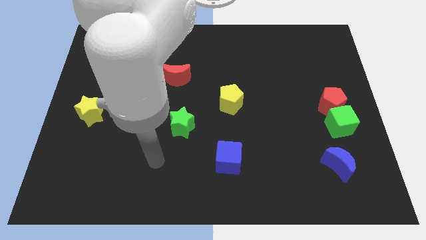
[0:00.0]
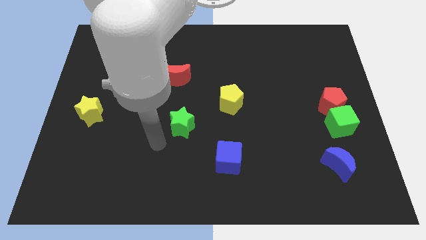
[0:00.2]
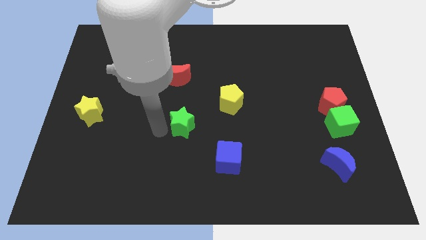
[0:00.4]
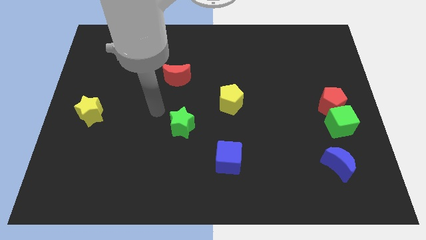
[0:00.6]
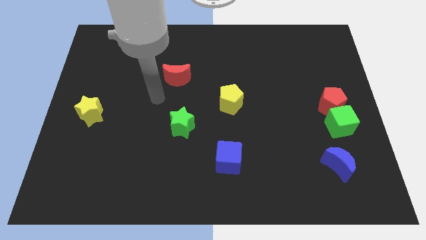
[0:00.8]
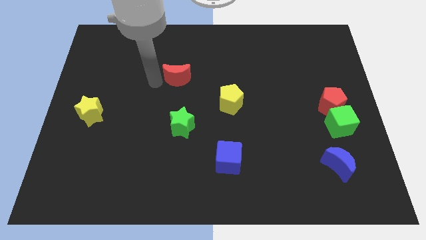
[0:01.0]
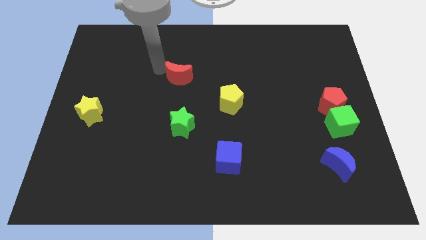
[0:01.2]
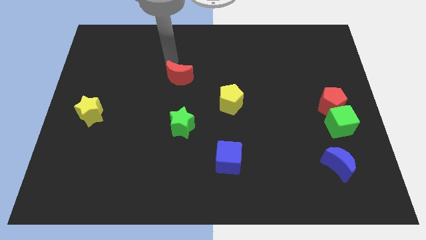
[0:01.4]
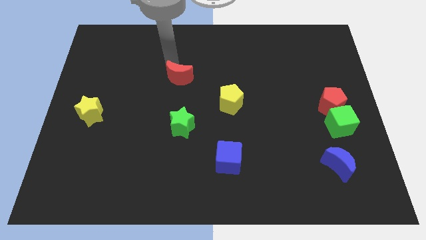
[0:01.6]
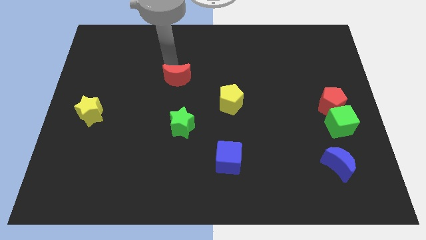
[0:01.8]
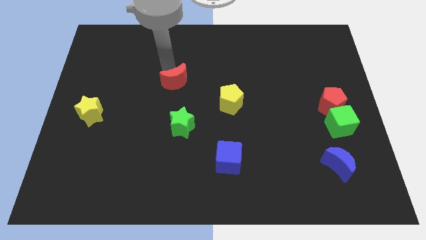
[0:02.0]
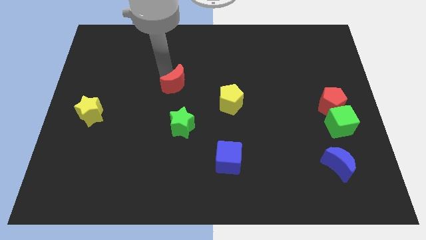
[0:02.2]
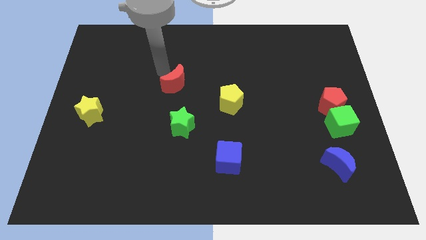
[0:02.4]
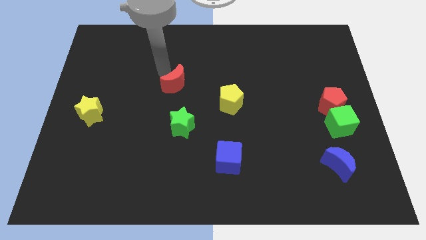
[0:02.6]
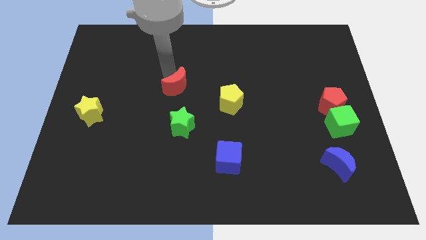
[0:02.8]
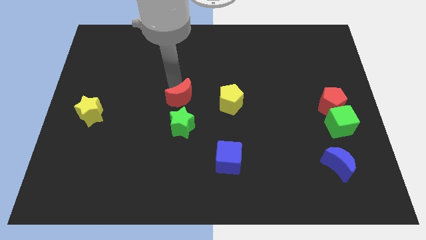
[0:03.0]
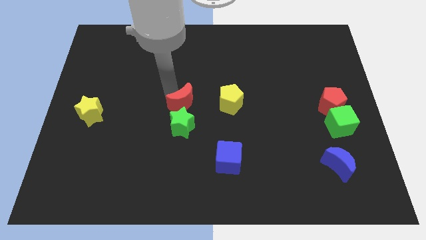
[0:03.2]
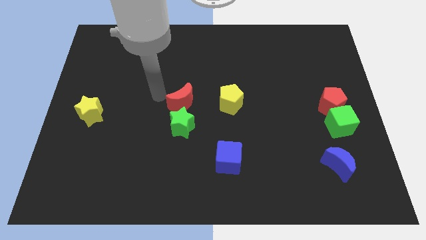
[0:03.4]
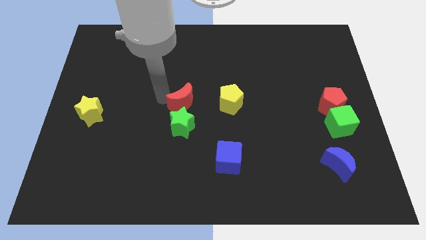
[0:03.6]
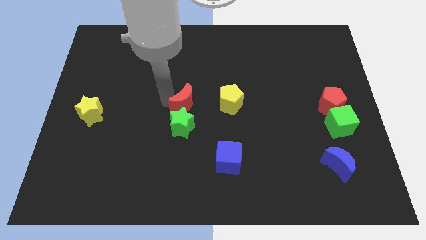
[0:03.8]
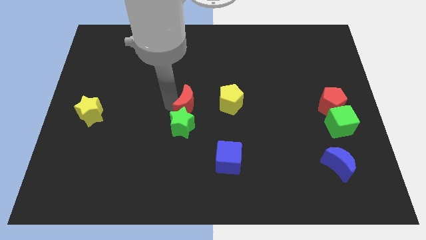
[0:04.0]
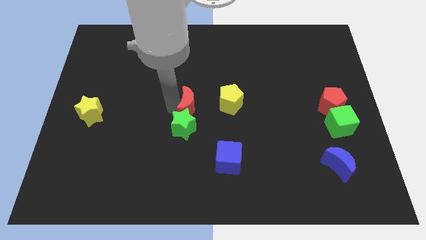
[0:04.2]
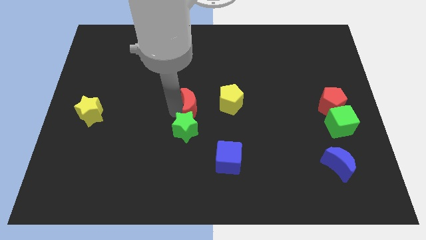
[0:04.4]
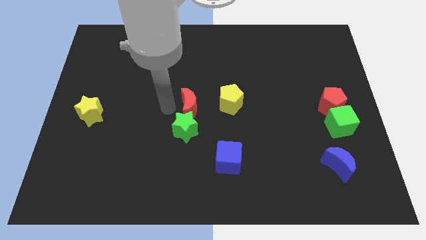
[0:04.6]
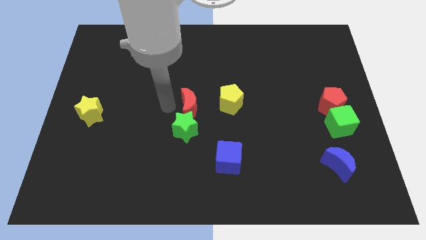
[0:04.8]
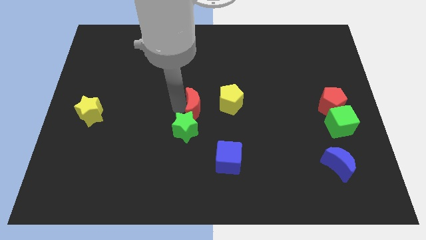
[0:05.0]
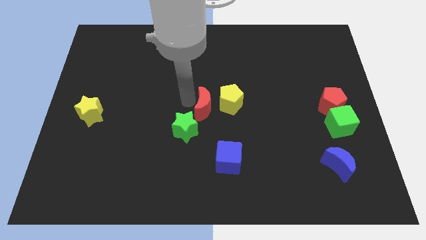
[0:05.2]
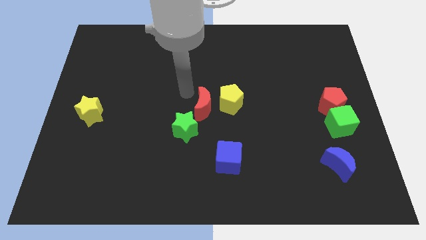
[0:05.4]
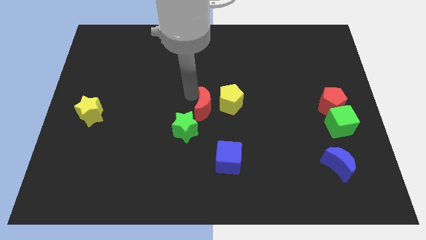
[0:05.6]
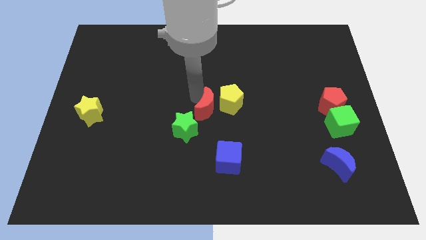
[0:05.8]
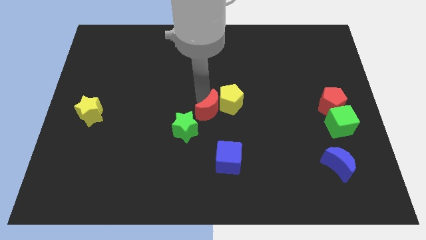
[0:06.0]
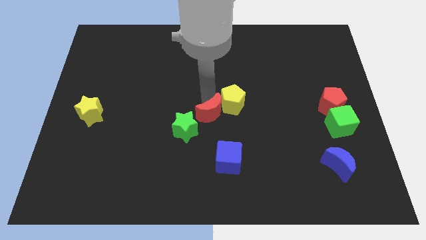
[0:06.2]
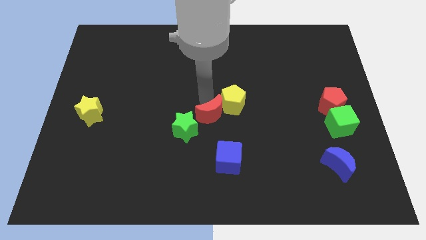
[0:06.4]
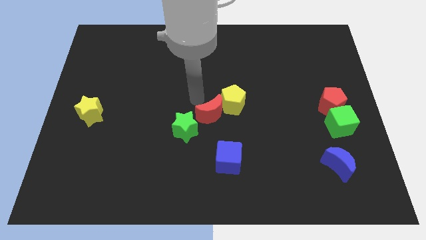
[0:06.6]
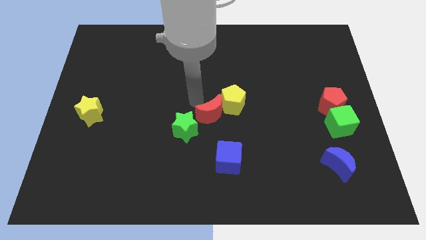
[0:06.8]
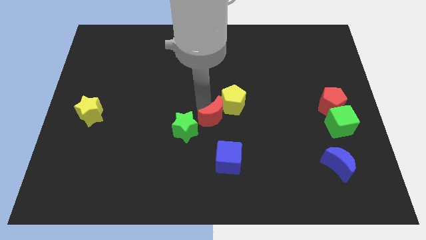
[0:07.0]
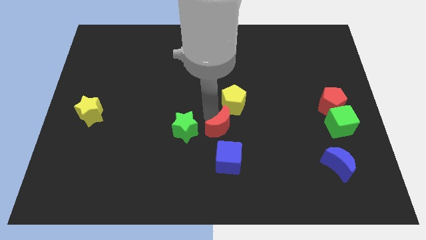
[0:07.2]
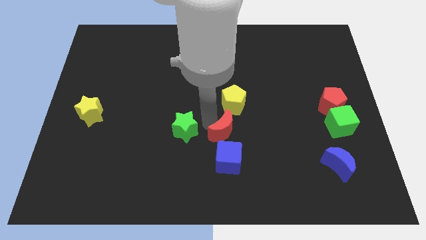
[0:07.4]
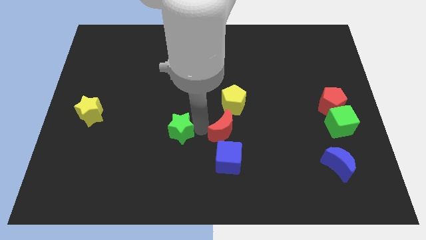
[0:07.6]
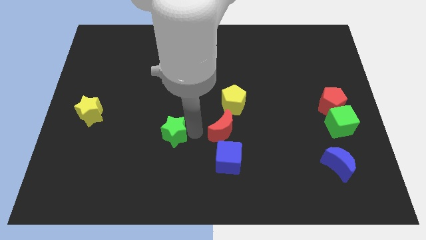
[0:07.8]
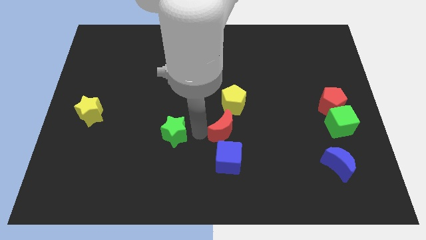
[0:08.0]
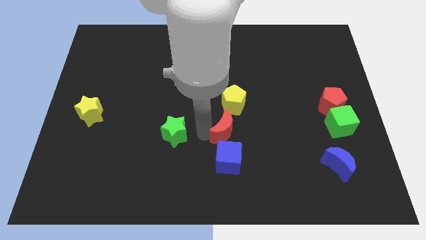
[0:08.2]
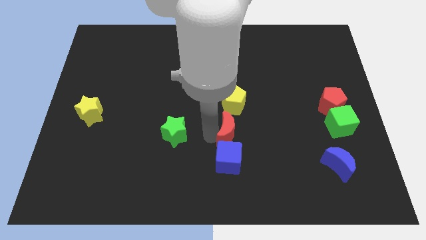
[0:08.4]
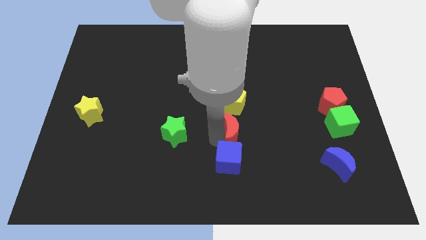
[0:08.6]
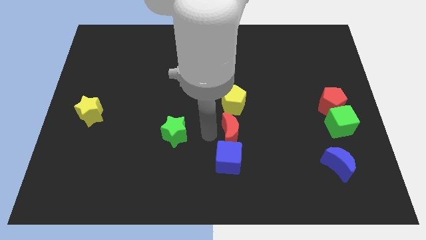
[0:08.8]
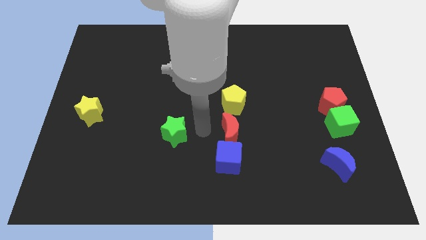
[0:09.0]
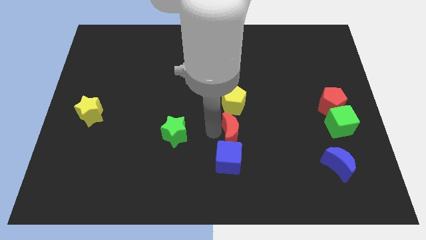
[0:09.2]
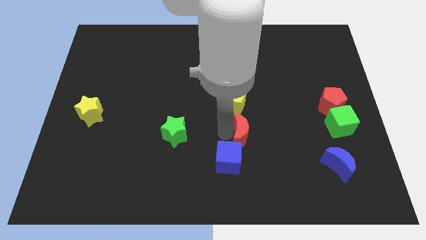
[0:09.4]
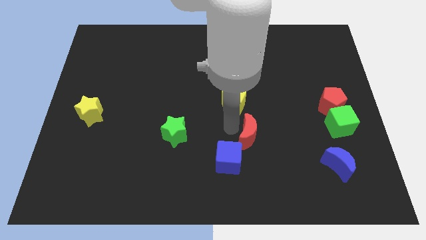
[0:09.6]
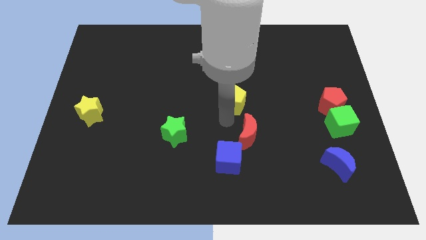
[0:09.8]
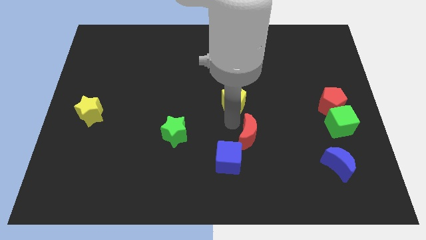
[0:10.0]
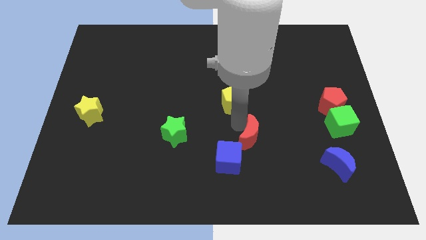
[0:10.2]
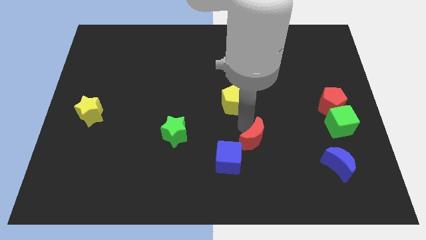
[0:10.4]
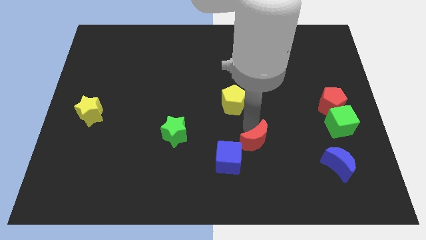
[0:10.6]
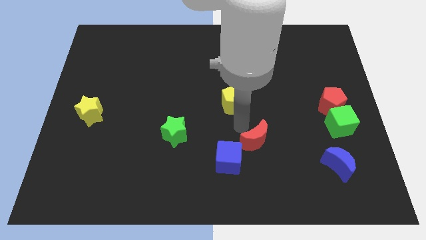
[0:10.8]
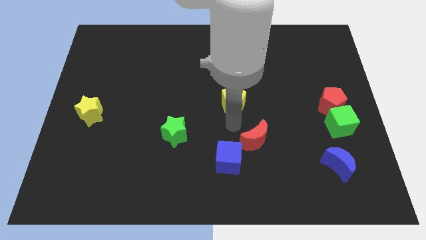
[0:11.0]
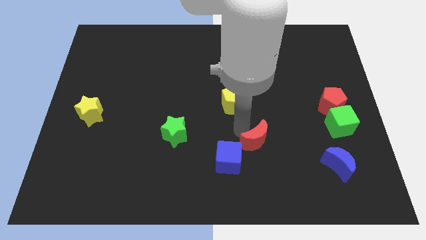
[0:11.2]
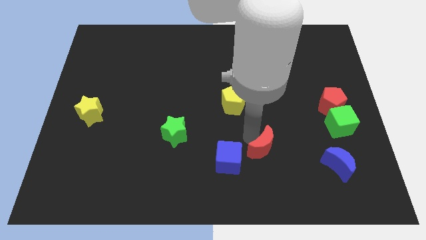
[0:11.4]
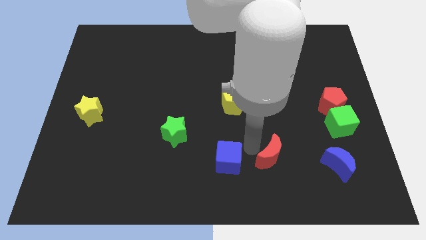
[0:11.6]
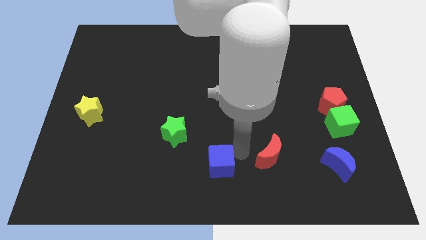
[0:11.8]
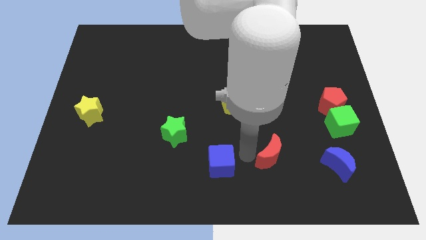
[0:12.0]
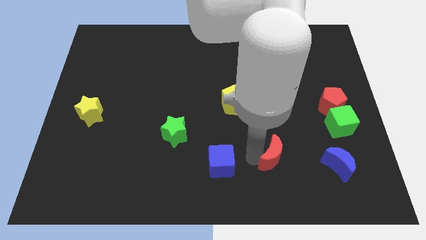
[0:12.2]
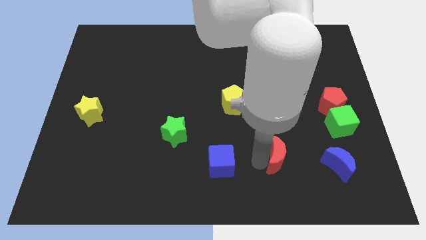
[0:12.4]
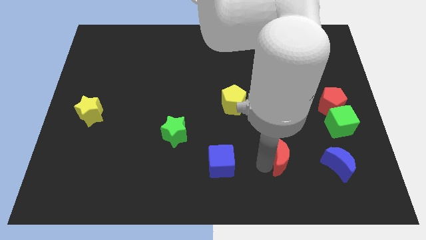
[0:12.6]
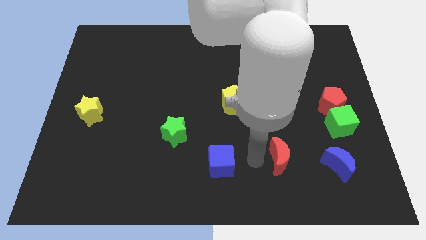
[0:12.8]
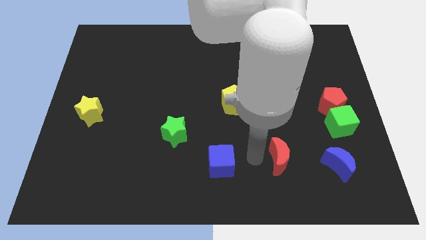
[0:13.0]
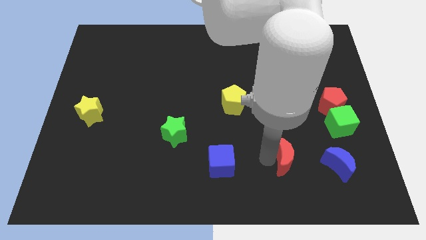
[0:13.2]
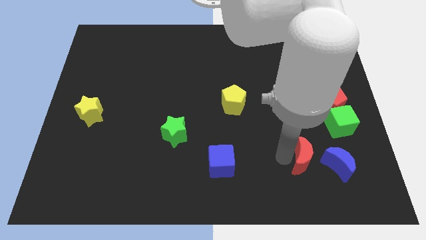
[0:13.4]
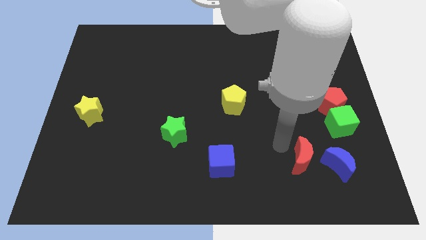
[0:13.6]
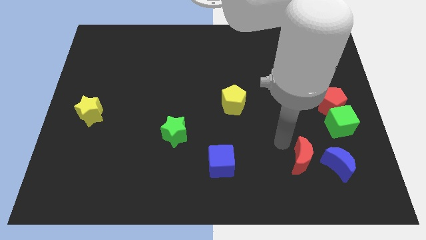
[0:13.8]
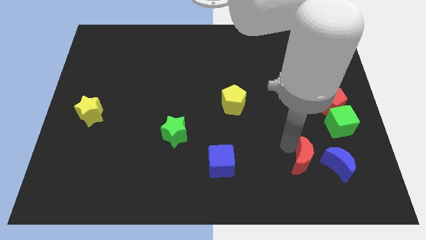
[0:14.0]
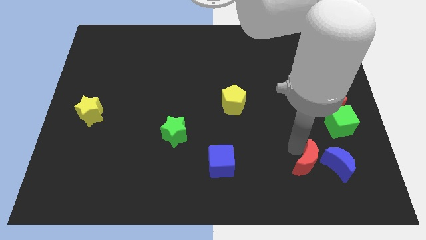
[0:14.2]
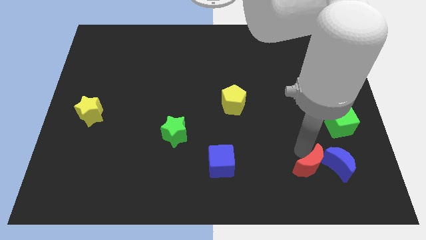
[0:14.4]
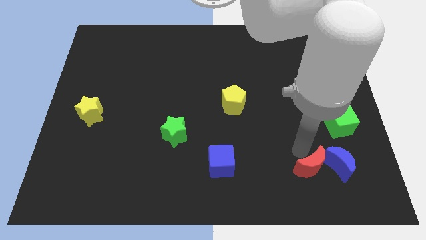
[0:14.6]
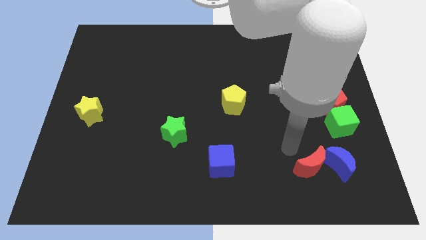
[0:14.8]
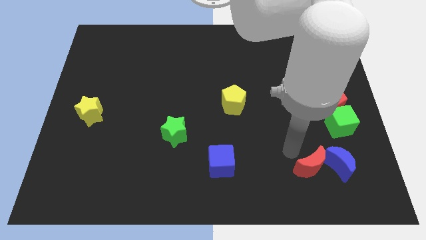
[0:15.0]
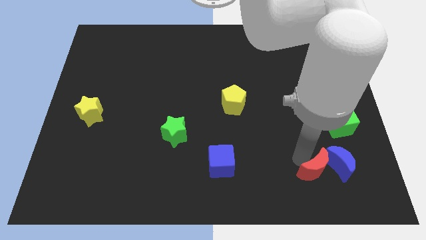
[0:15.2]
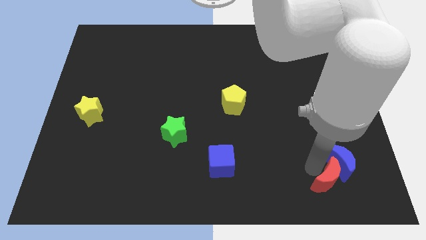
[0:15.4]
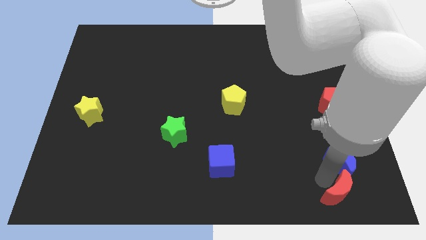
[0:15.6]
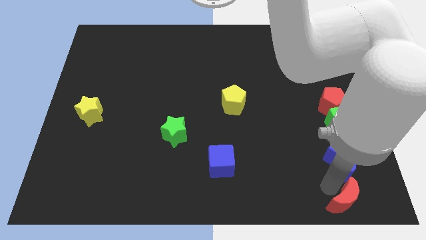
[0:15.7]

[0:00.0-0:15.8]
slide the red moon to the lower right corner
